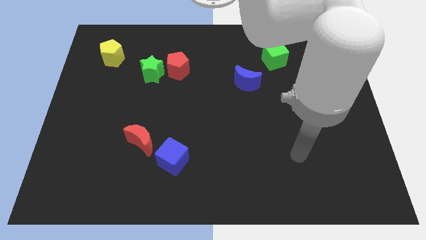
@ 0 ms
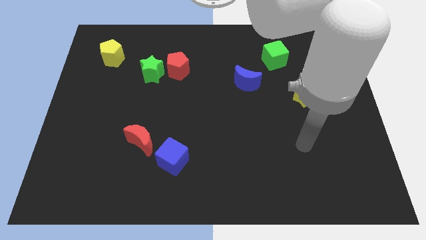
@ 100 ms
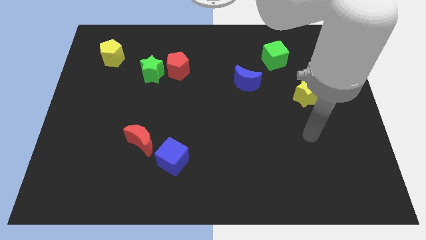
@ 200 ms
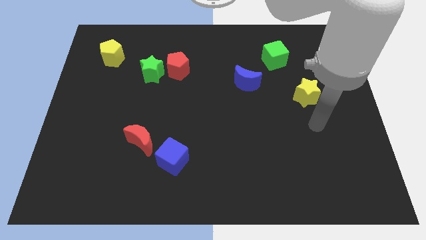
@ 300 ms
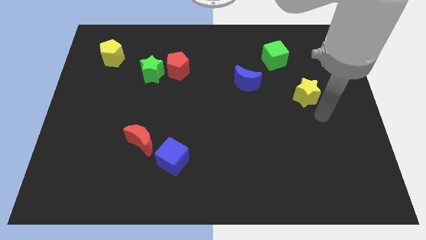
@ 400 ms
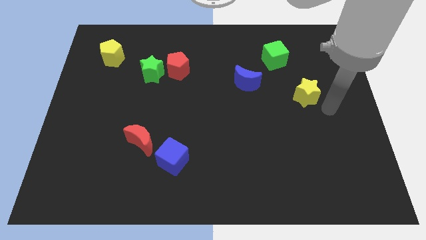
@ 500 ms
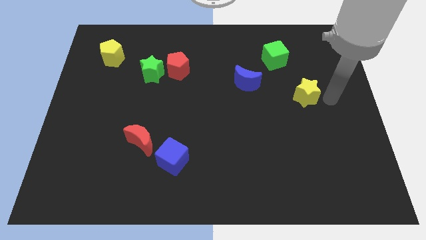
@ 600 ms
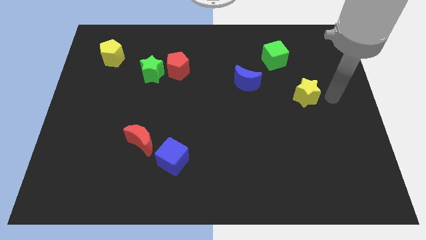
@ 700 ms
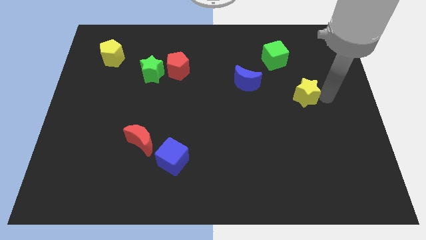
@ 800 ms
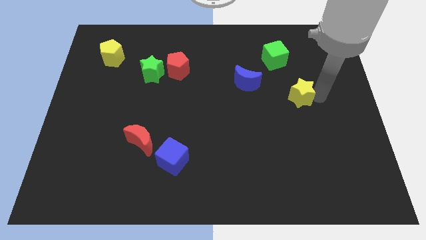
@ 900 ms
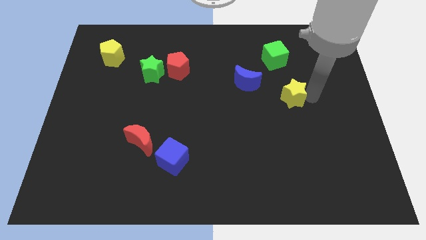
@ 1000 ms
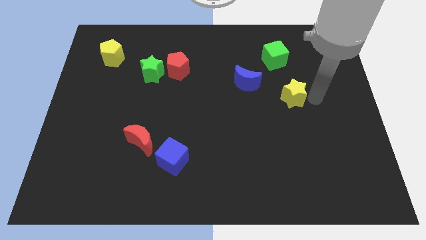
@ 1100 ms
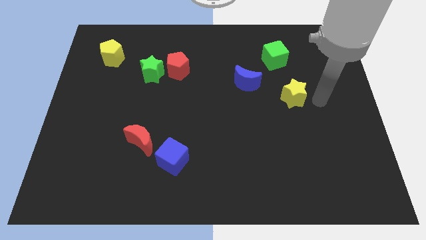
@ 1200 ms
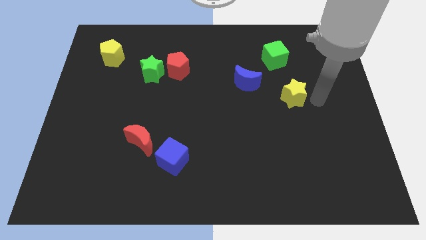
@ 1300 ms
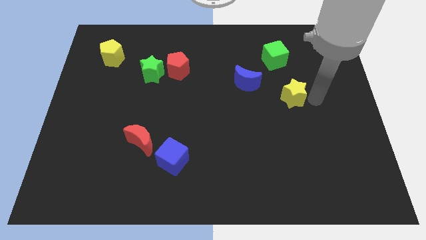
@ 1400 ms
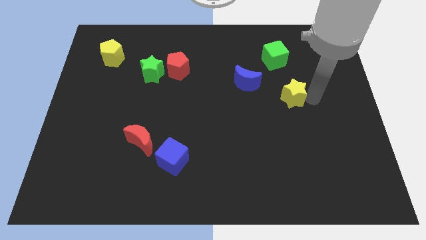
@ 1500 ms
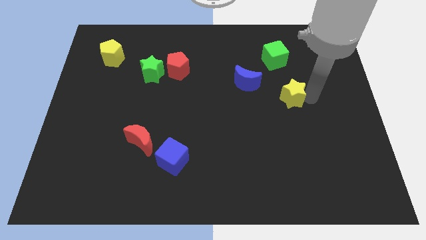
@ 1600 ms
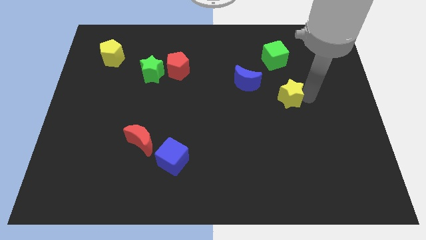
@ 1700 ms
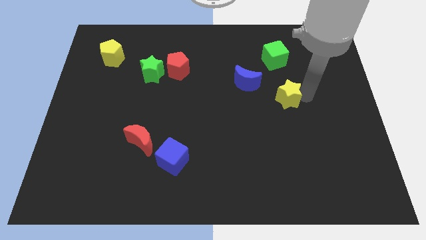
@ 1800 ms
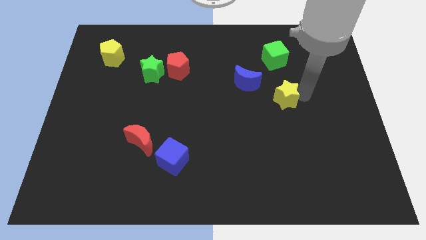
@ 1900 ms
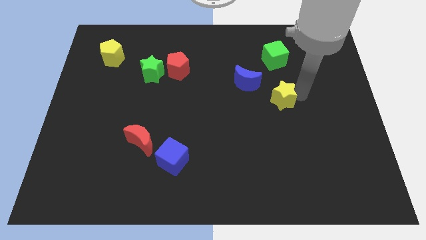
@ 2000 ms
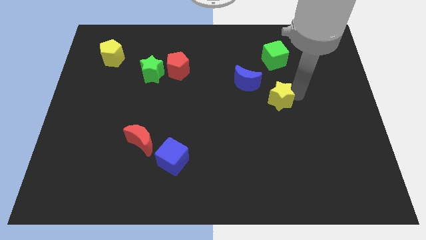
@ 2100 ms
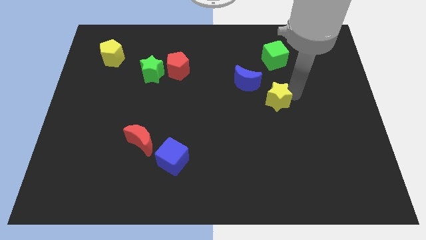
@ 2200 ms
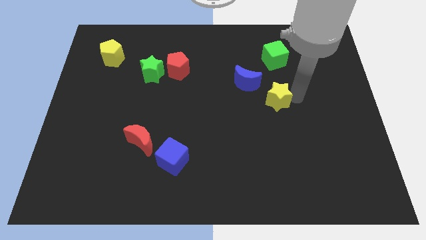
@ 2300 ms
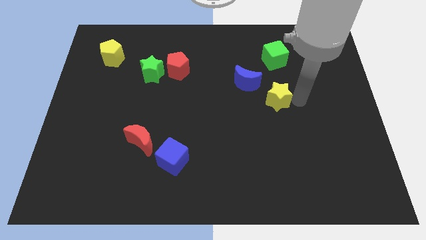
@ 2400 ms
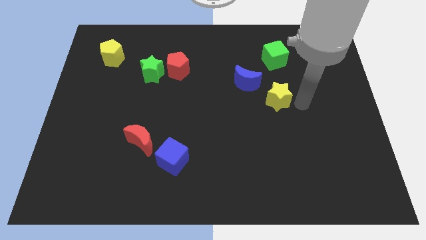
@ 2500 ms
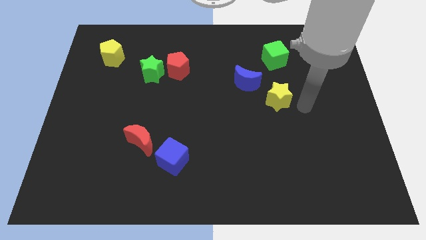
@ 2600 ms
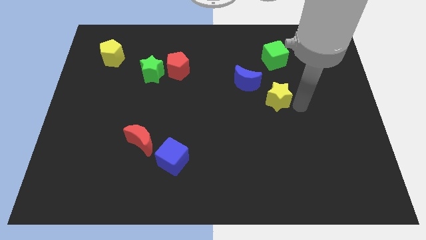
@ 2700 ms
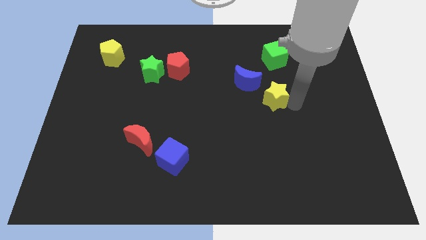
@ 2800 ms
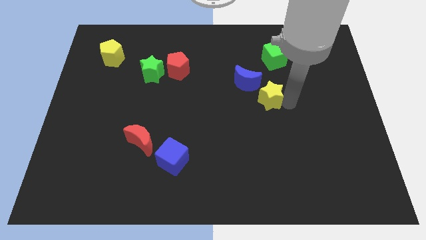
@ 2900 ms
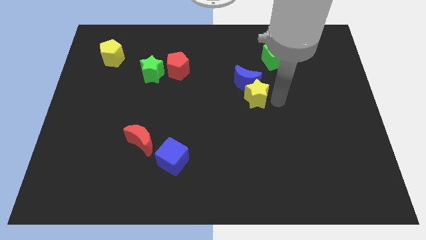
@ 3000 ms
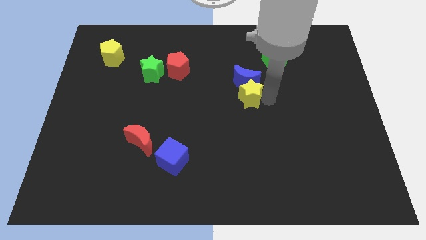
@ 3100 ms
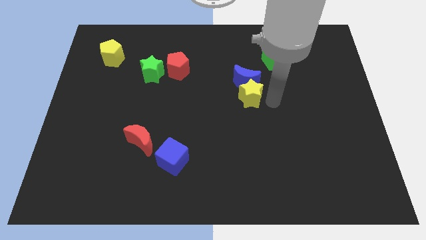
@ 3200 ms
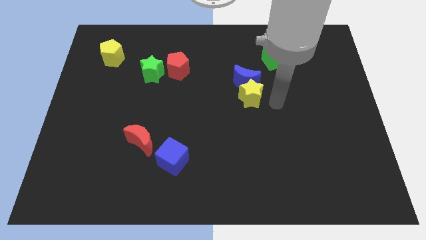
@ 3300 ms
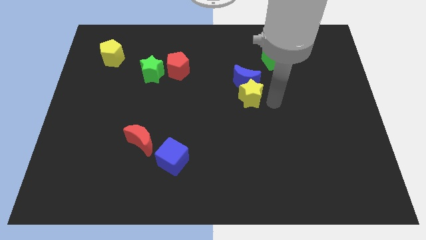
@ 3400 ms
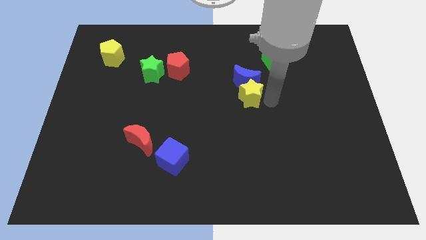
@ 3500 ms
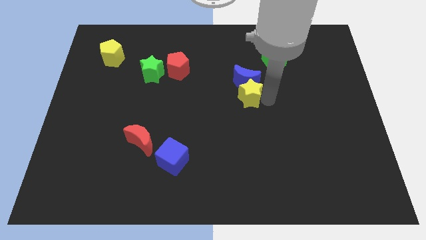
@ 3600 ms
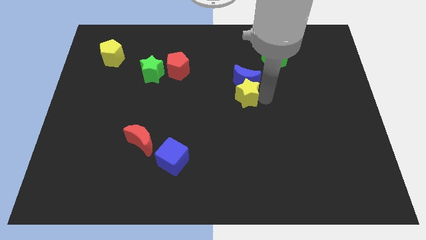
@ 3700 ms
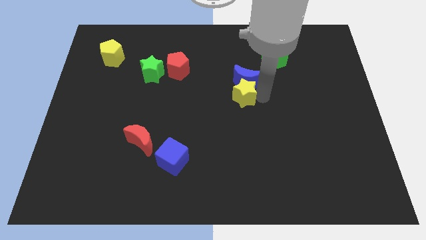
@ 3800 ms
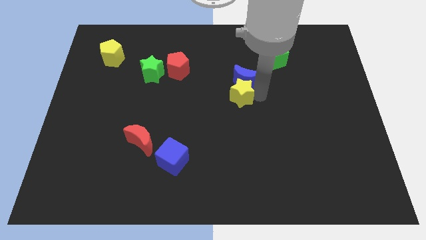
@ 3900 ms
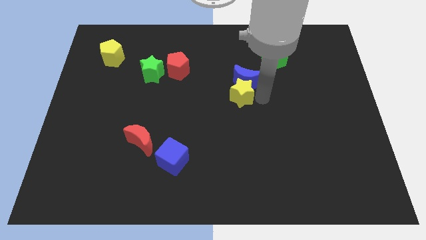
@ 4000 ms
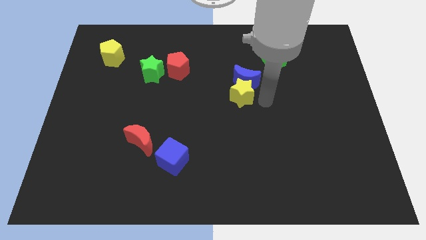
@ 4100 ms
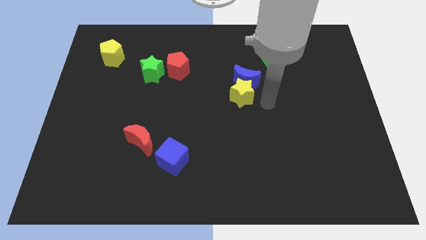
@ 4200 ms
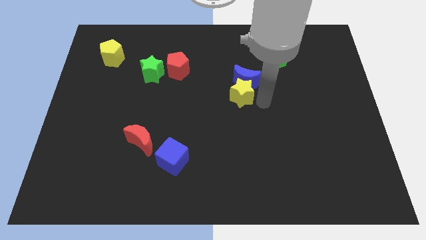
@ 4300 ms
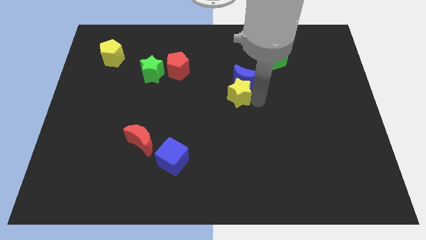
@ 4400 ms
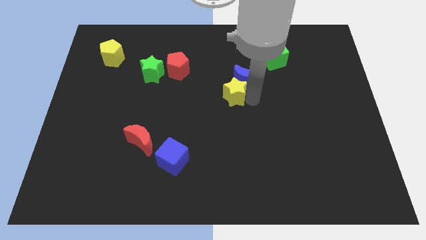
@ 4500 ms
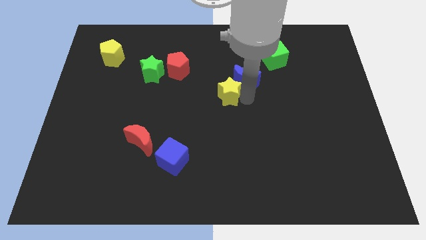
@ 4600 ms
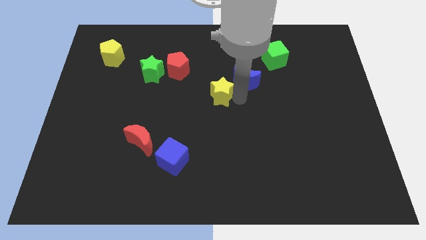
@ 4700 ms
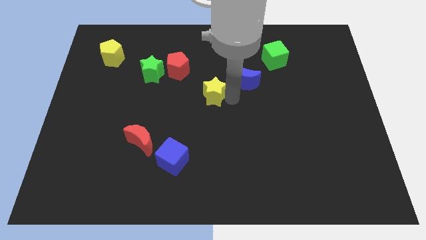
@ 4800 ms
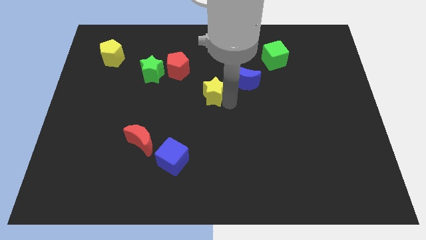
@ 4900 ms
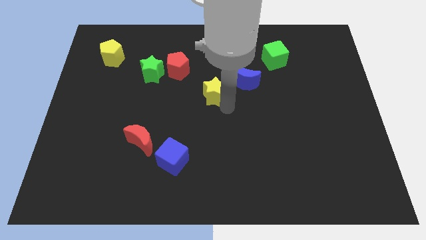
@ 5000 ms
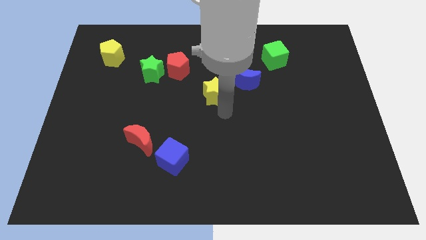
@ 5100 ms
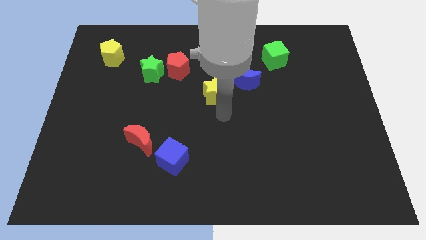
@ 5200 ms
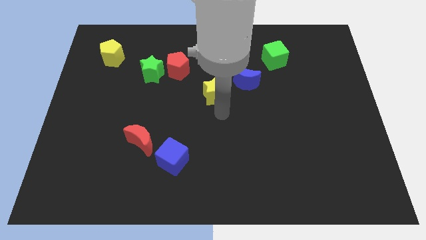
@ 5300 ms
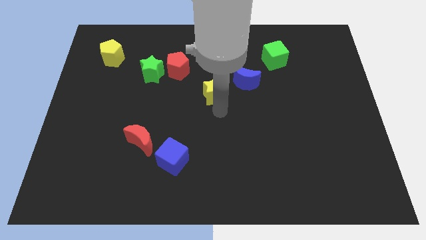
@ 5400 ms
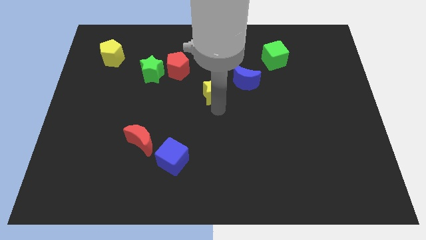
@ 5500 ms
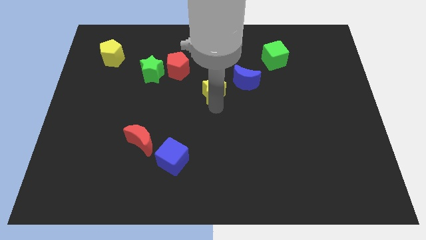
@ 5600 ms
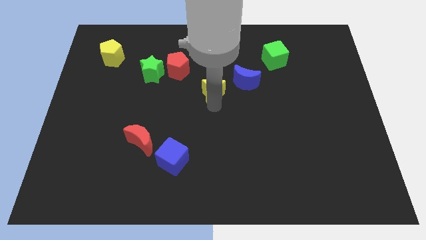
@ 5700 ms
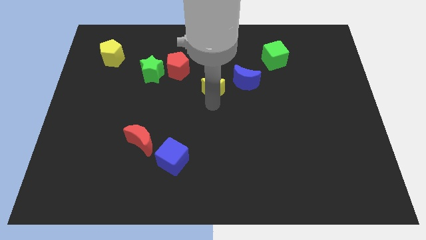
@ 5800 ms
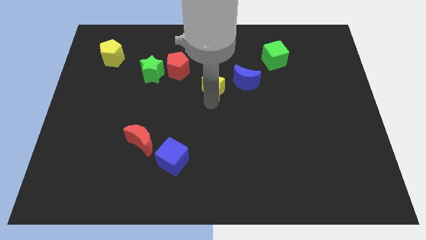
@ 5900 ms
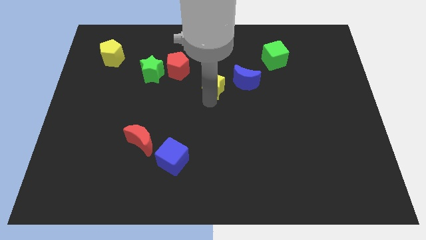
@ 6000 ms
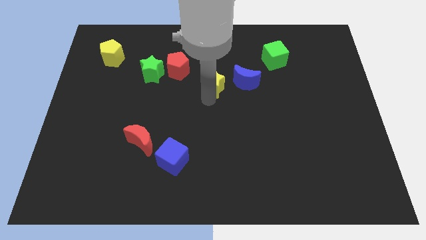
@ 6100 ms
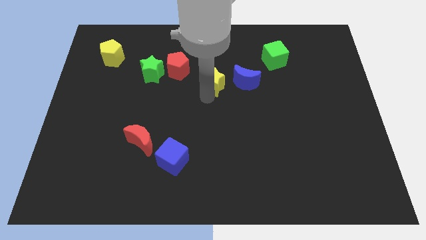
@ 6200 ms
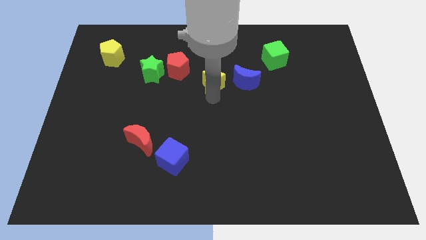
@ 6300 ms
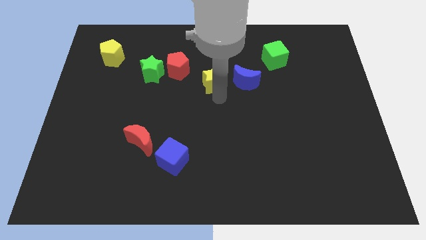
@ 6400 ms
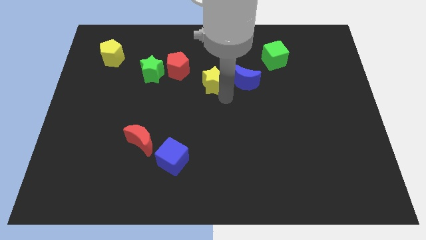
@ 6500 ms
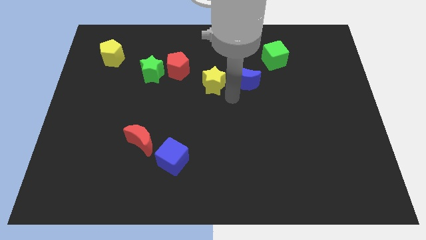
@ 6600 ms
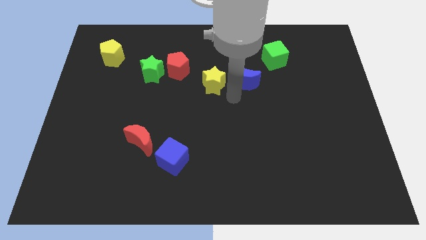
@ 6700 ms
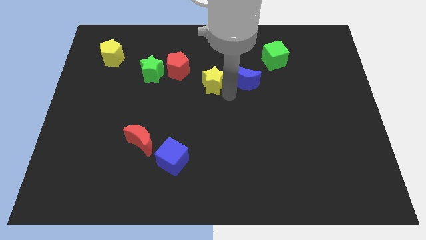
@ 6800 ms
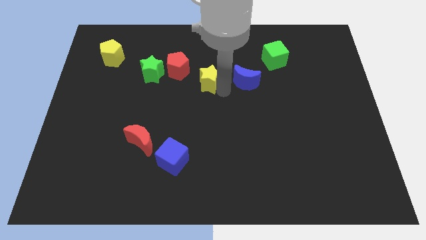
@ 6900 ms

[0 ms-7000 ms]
put the yellow star just right of the green star

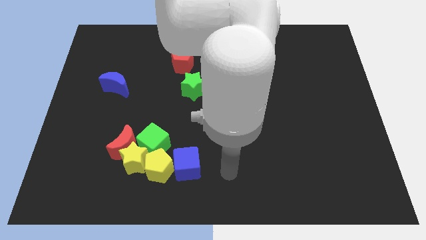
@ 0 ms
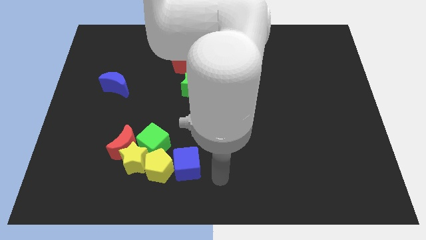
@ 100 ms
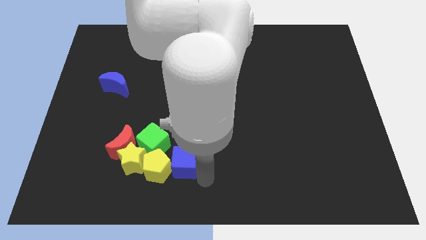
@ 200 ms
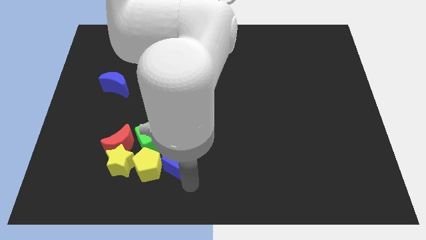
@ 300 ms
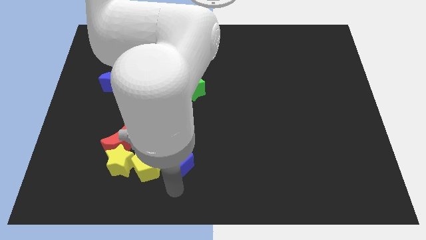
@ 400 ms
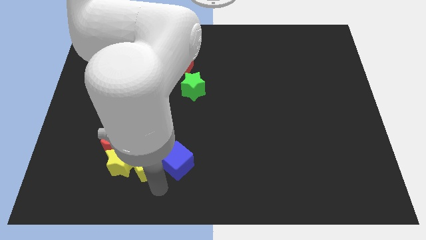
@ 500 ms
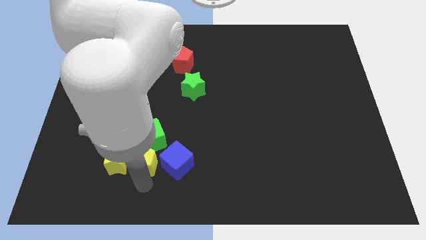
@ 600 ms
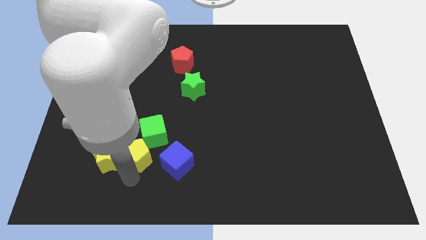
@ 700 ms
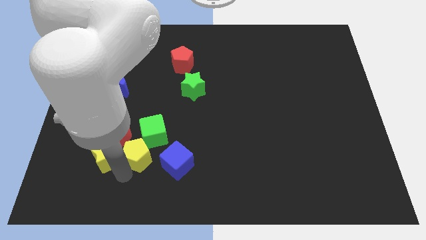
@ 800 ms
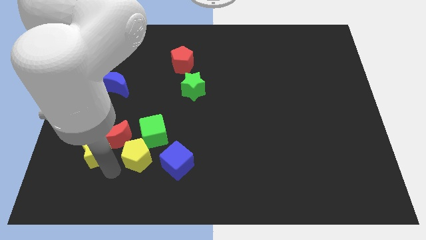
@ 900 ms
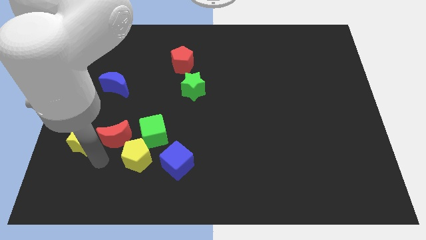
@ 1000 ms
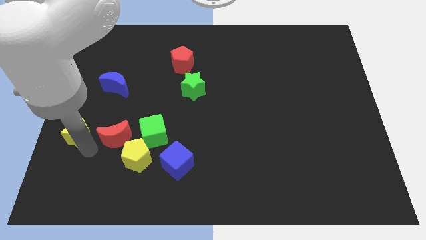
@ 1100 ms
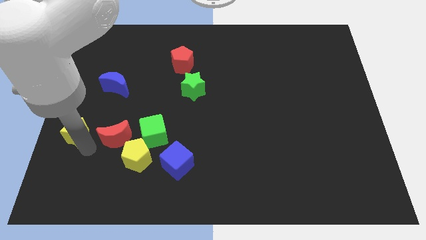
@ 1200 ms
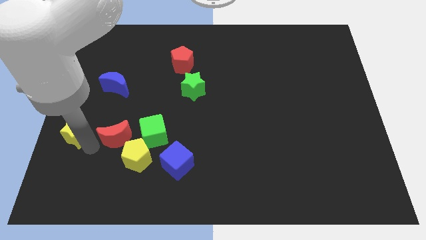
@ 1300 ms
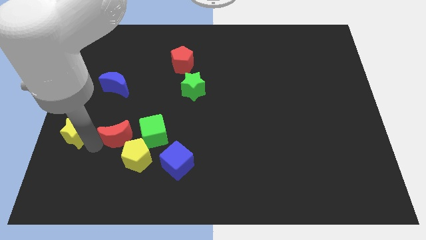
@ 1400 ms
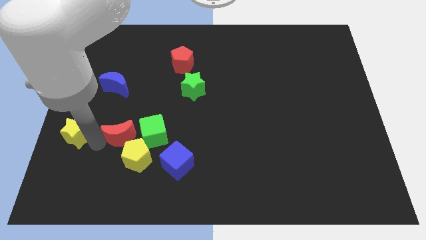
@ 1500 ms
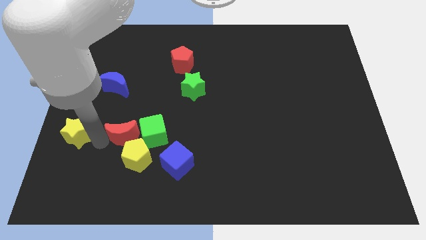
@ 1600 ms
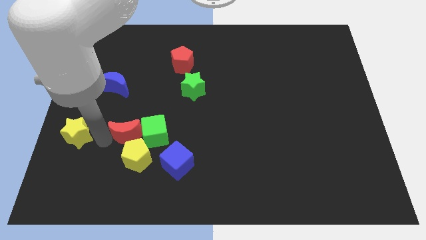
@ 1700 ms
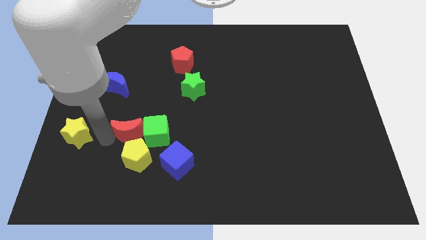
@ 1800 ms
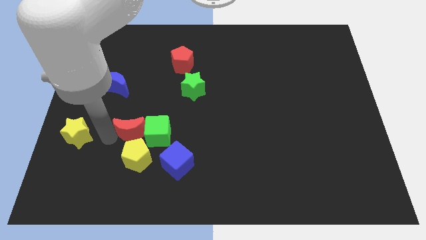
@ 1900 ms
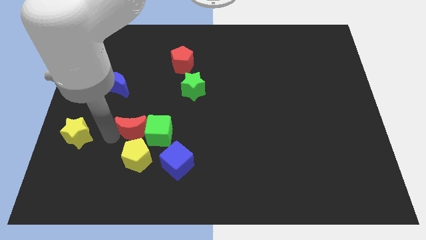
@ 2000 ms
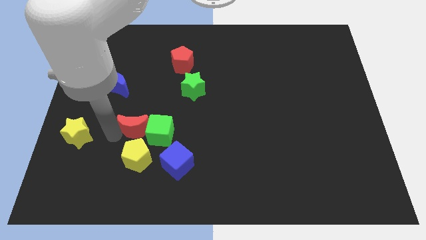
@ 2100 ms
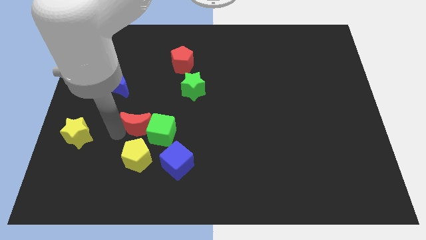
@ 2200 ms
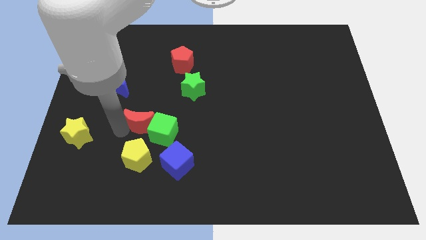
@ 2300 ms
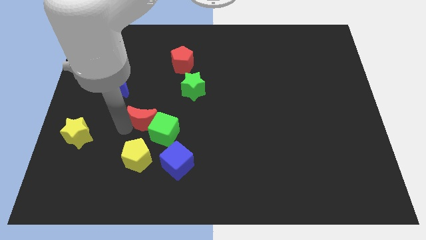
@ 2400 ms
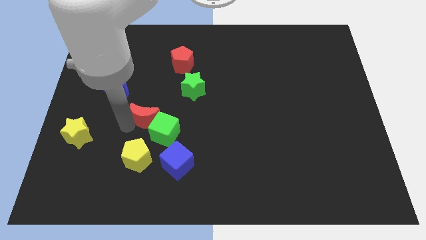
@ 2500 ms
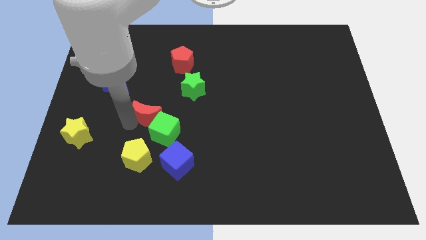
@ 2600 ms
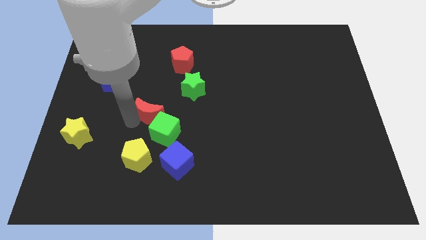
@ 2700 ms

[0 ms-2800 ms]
slide the red moon to the bottom left side of the green star
